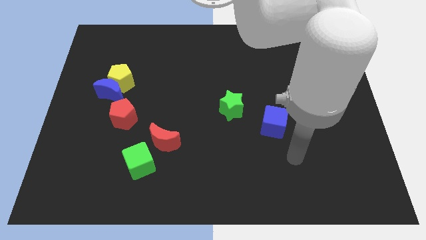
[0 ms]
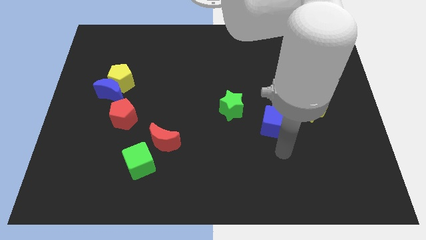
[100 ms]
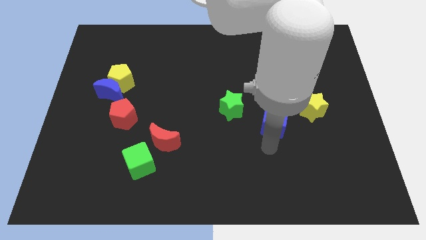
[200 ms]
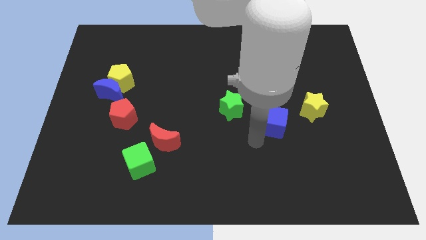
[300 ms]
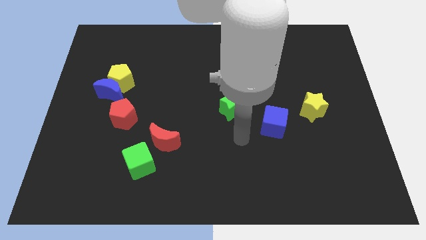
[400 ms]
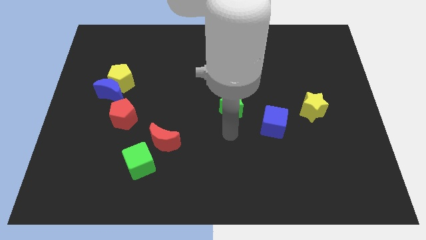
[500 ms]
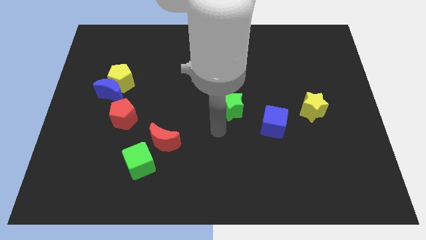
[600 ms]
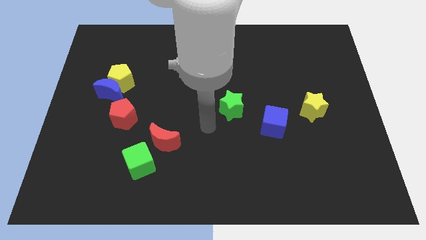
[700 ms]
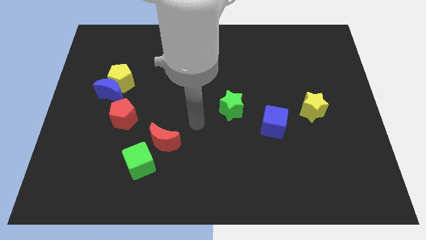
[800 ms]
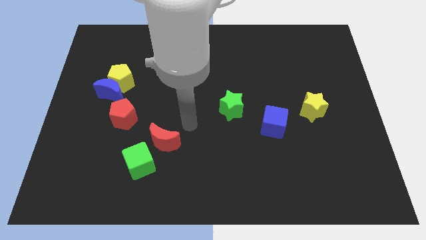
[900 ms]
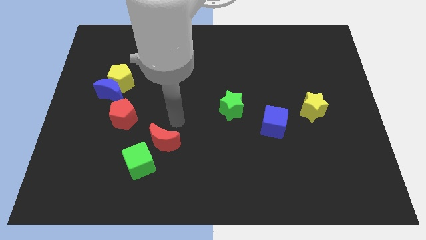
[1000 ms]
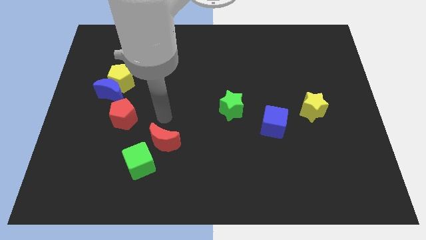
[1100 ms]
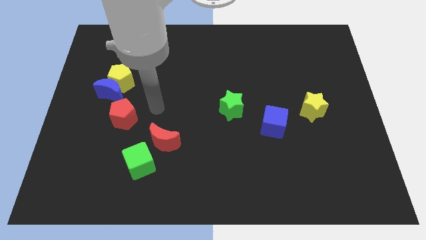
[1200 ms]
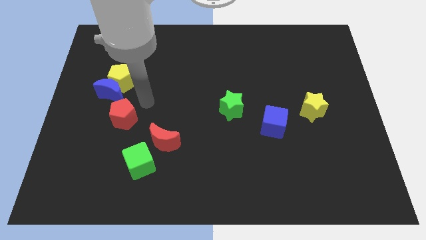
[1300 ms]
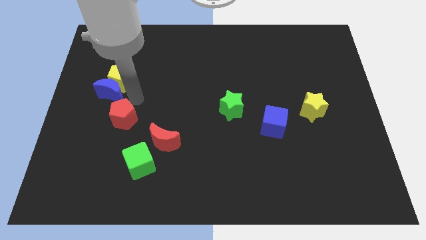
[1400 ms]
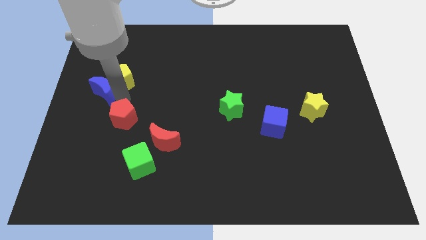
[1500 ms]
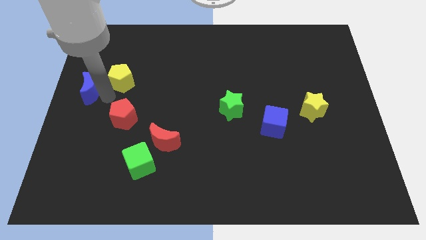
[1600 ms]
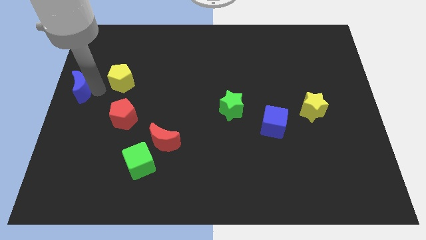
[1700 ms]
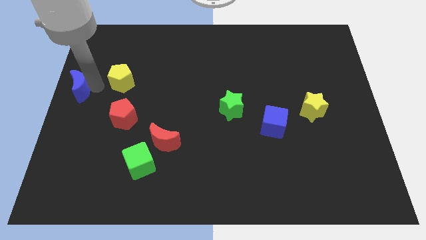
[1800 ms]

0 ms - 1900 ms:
separate the yellow pentagon from the blue moon

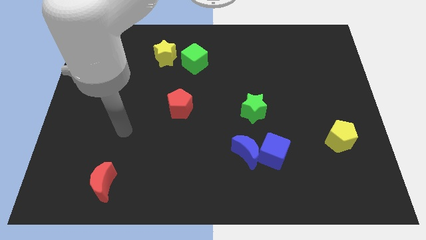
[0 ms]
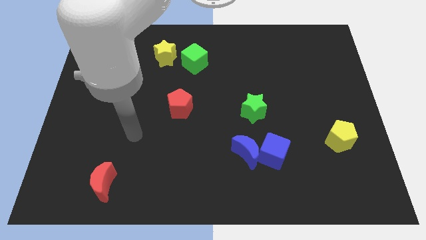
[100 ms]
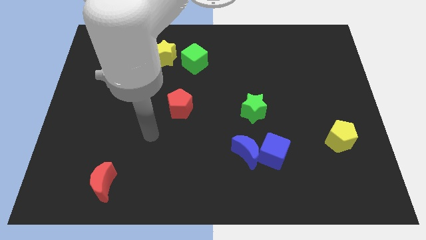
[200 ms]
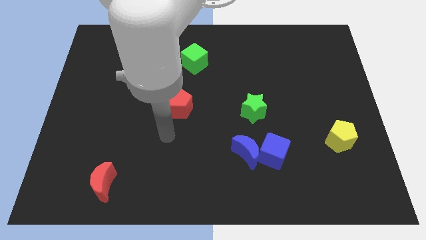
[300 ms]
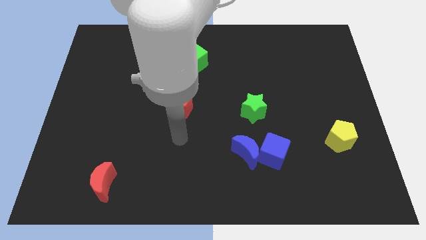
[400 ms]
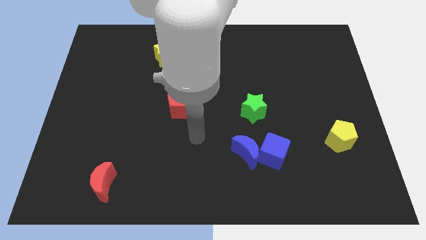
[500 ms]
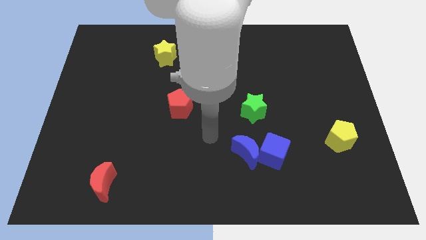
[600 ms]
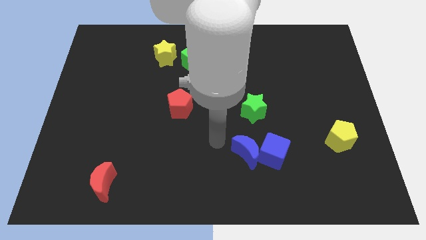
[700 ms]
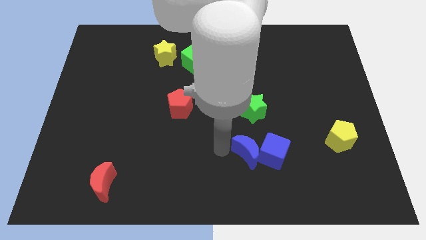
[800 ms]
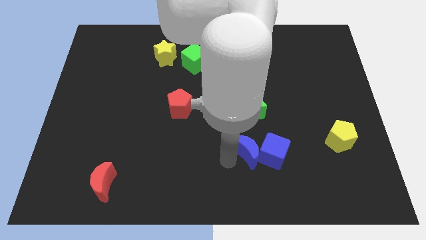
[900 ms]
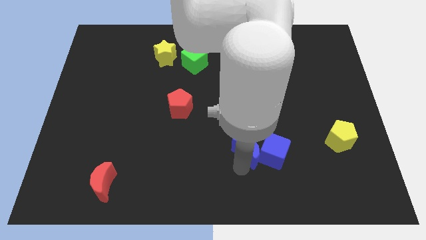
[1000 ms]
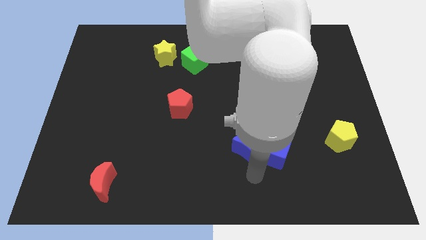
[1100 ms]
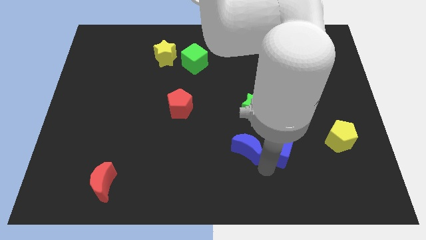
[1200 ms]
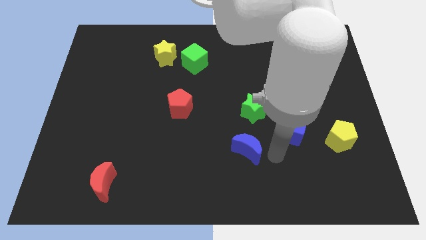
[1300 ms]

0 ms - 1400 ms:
separate the blue moon from the blue cube

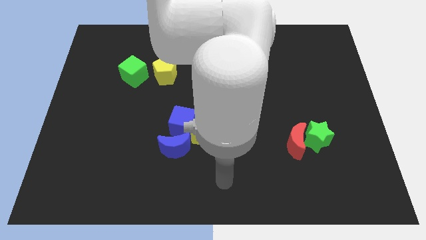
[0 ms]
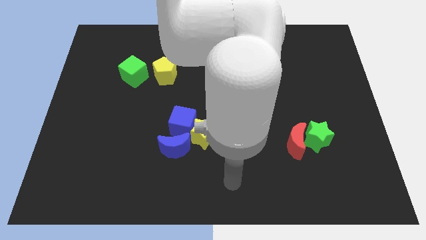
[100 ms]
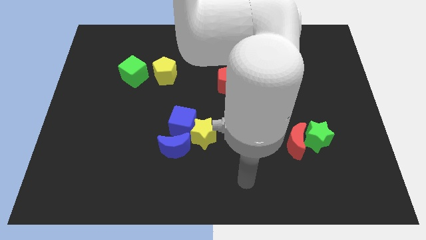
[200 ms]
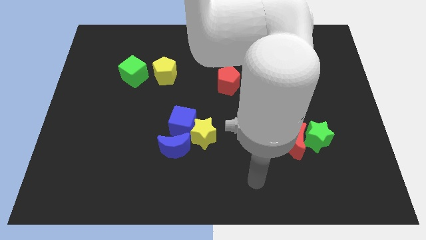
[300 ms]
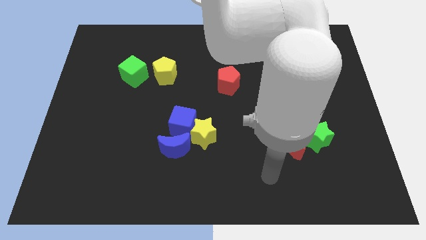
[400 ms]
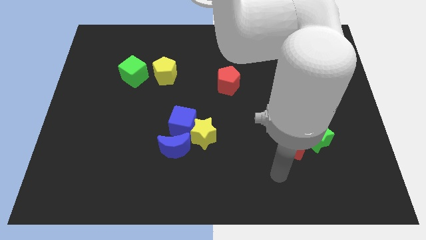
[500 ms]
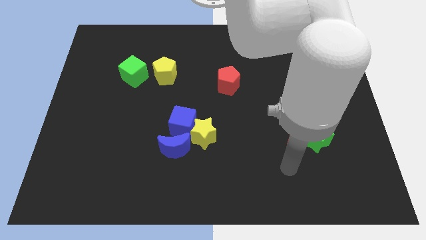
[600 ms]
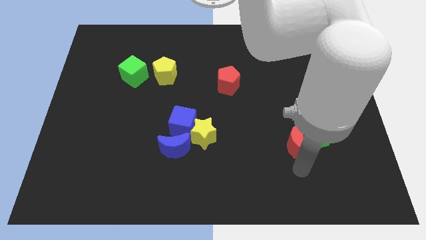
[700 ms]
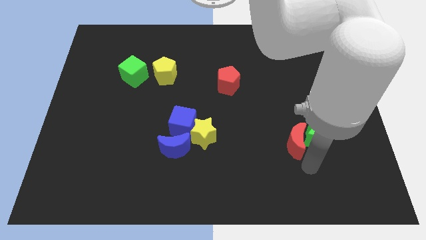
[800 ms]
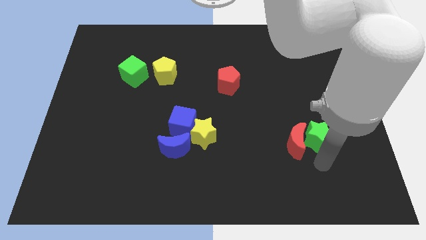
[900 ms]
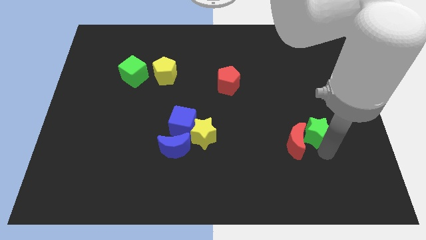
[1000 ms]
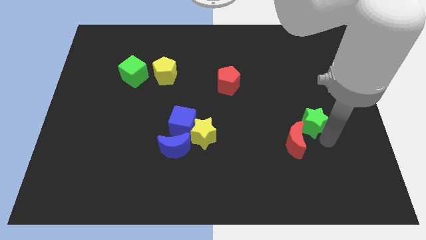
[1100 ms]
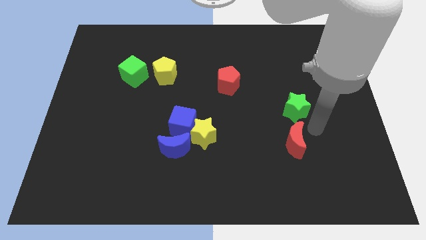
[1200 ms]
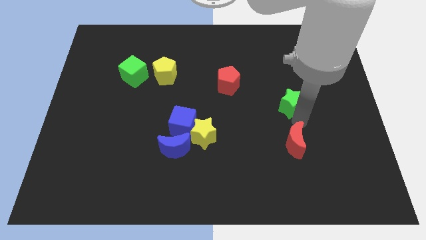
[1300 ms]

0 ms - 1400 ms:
move the red moon away from the green star

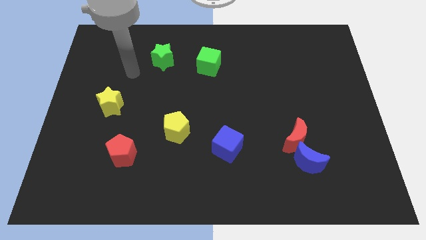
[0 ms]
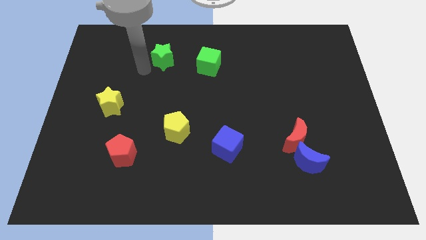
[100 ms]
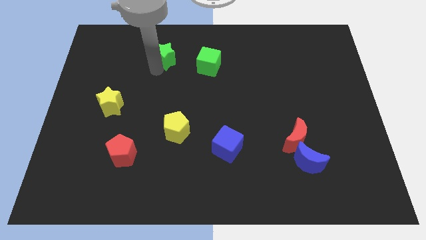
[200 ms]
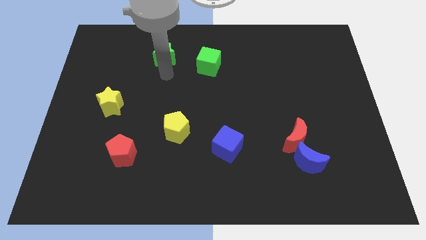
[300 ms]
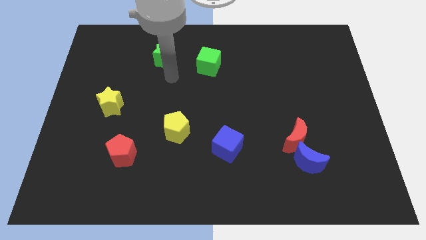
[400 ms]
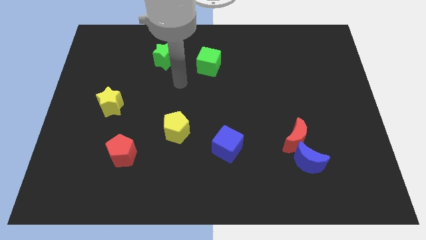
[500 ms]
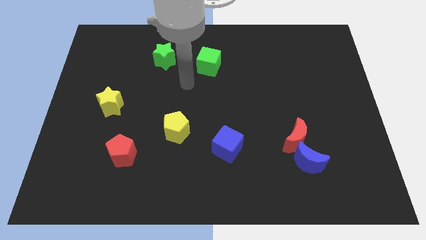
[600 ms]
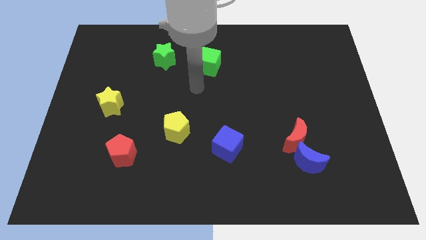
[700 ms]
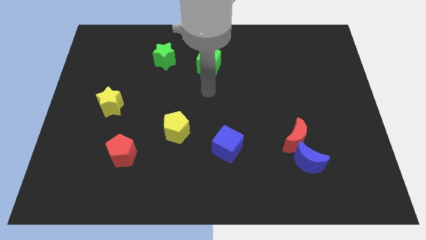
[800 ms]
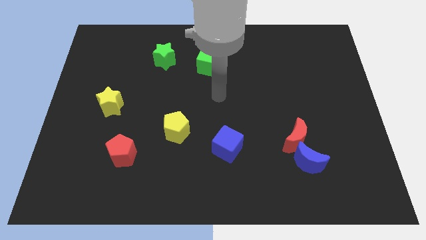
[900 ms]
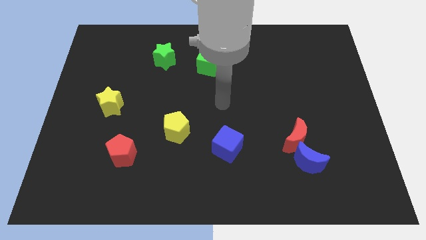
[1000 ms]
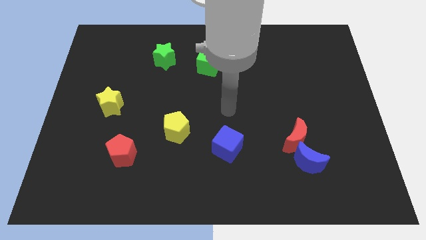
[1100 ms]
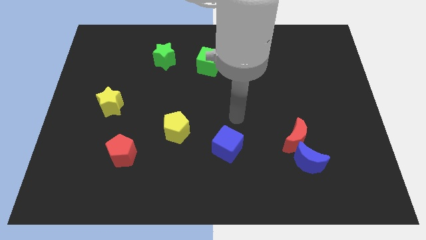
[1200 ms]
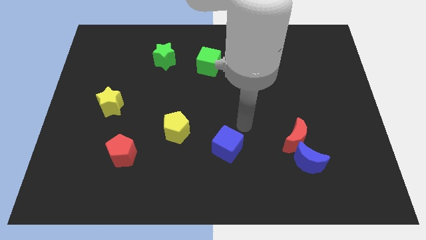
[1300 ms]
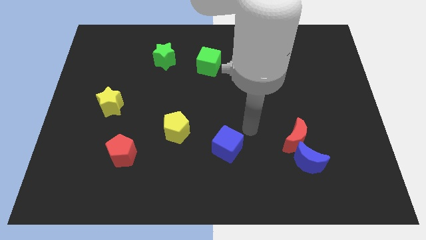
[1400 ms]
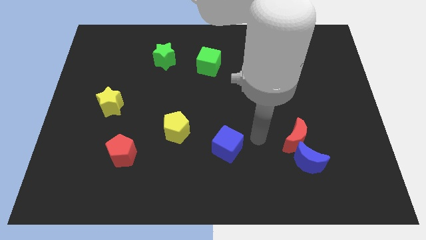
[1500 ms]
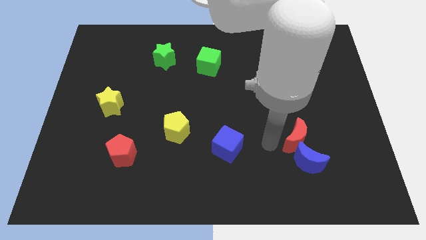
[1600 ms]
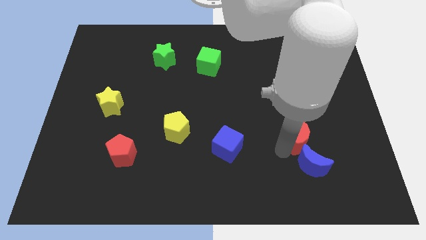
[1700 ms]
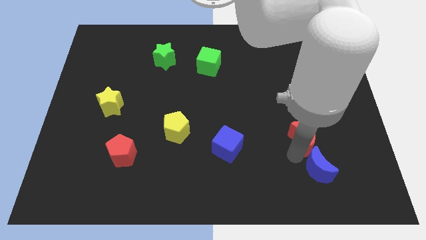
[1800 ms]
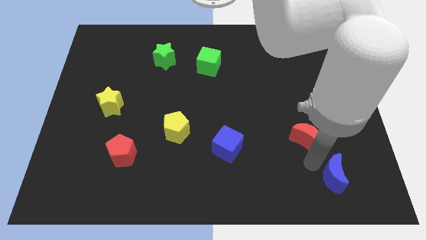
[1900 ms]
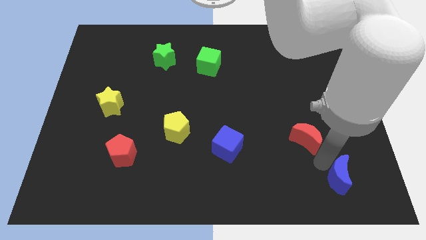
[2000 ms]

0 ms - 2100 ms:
pull the red moon apart from the blue moon

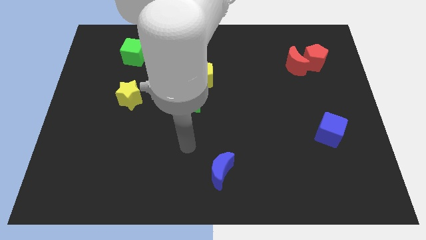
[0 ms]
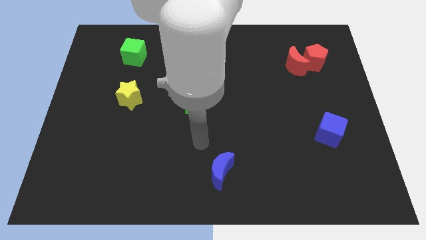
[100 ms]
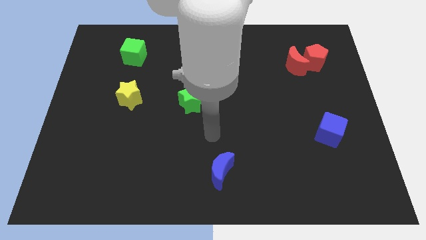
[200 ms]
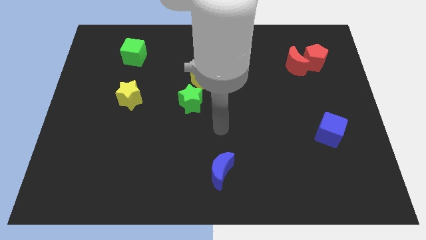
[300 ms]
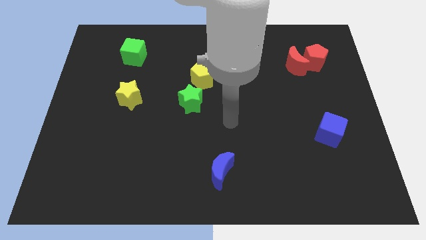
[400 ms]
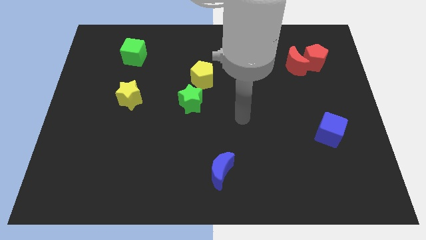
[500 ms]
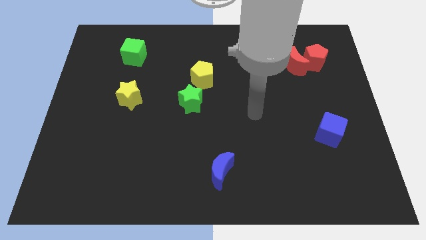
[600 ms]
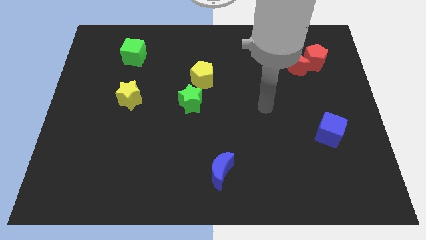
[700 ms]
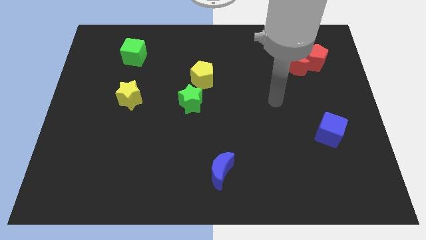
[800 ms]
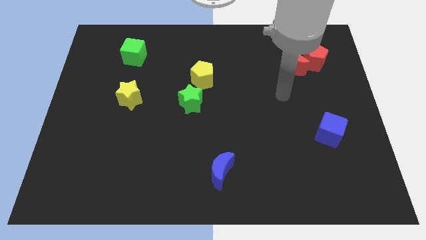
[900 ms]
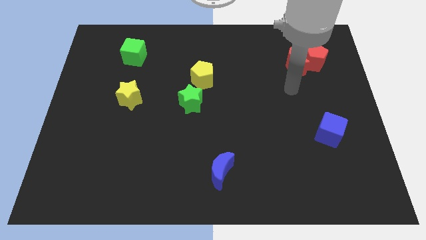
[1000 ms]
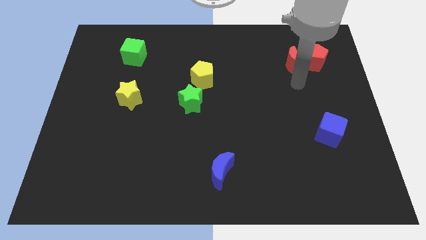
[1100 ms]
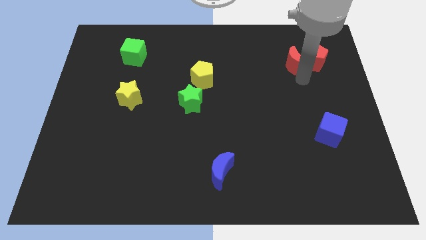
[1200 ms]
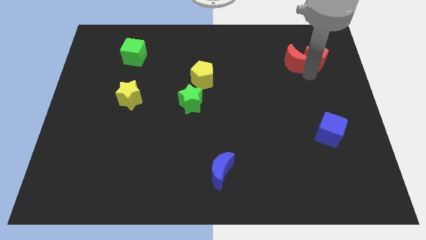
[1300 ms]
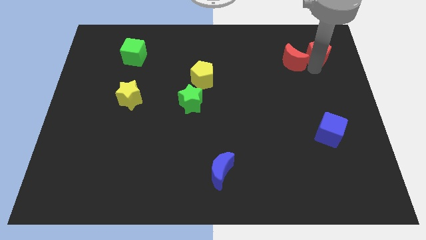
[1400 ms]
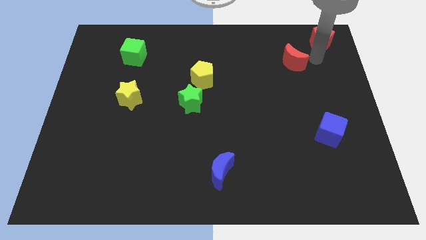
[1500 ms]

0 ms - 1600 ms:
pull the red moon apart from the red pentagon

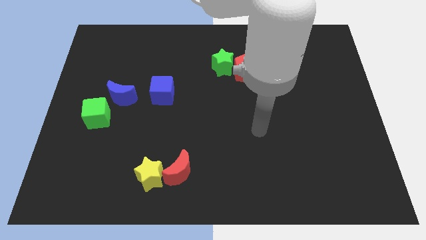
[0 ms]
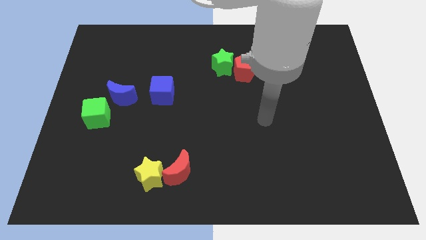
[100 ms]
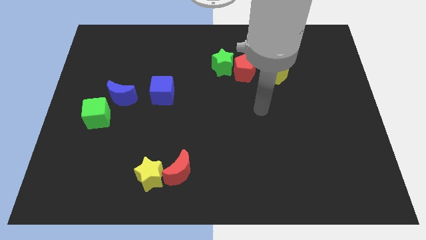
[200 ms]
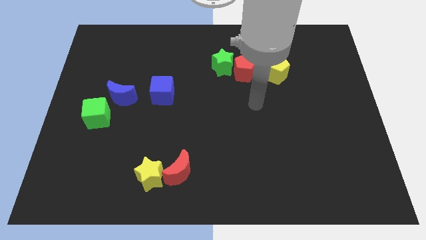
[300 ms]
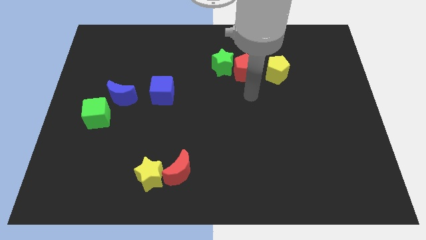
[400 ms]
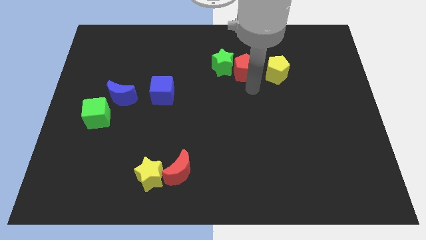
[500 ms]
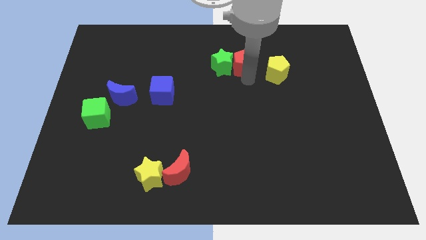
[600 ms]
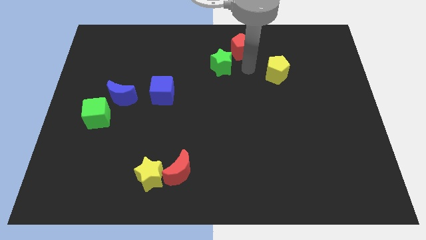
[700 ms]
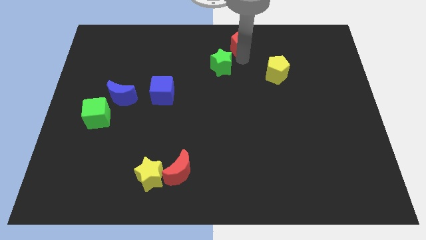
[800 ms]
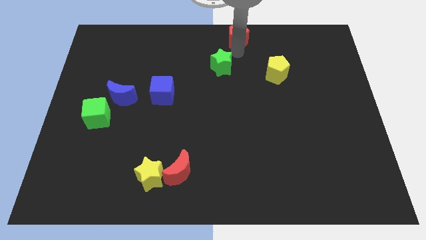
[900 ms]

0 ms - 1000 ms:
separate the green star from the red pentagon
